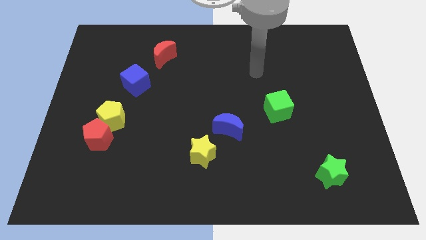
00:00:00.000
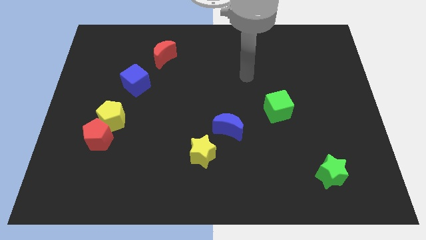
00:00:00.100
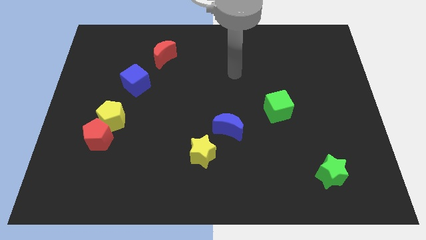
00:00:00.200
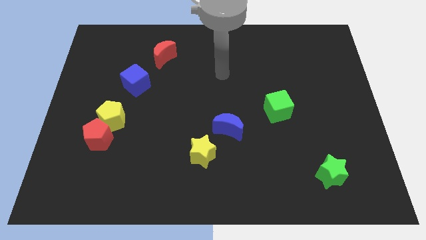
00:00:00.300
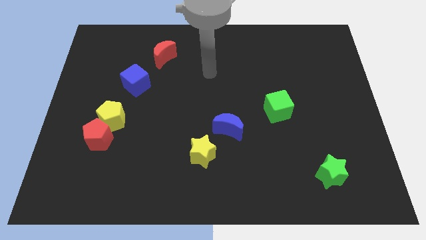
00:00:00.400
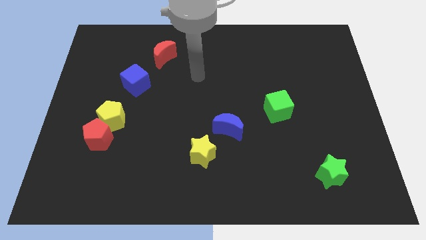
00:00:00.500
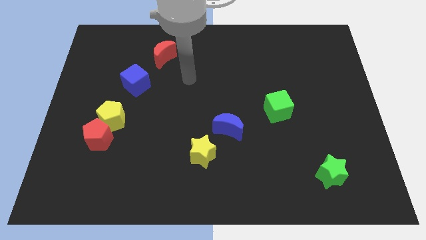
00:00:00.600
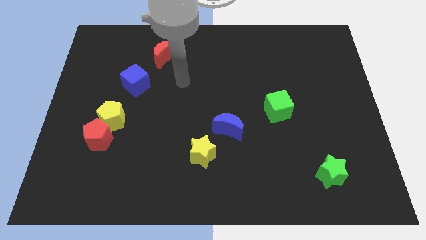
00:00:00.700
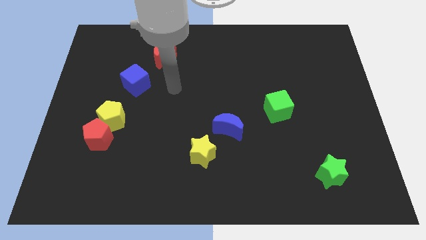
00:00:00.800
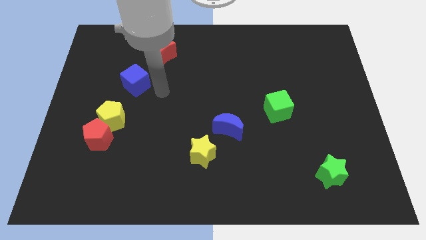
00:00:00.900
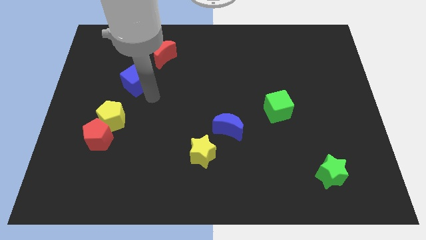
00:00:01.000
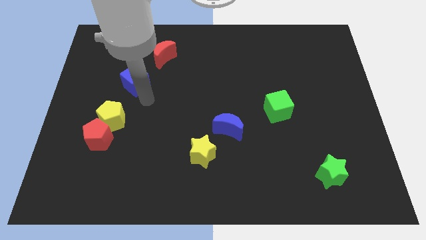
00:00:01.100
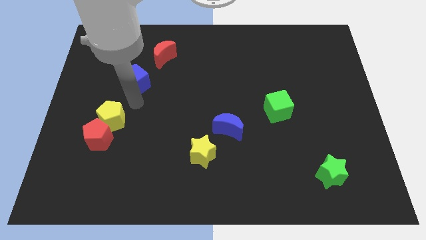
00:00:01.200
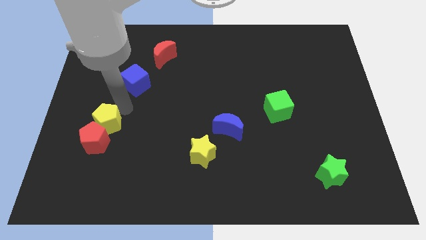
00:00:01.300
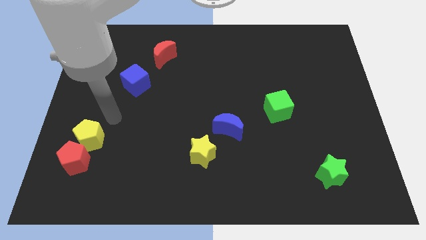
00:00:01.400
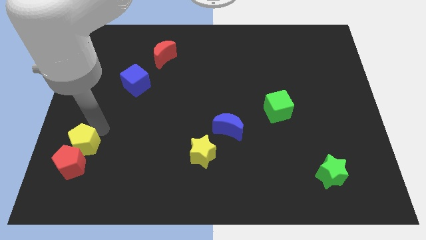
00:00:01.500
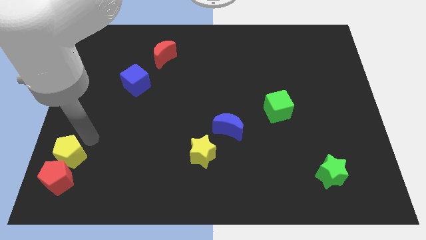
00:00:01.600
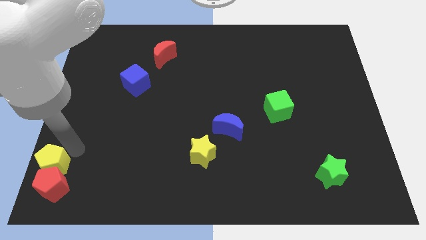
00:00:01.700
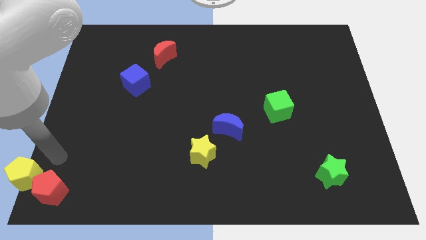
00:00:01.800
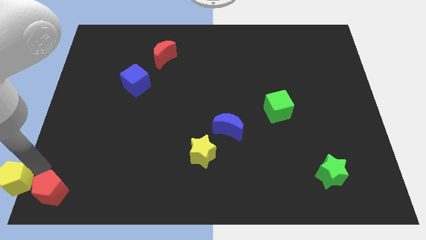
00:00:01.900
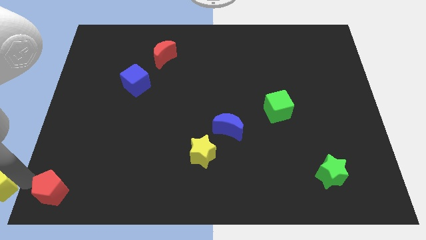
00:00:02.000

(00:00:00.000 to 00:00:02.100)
move the red pentagon away from the yellow pentagon

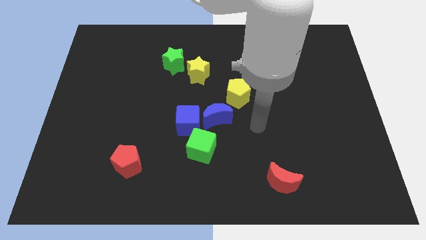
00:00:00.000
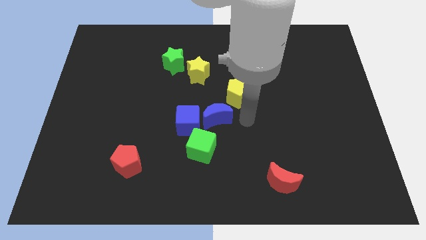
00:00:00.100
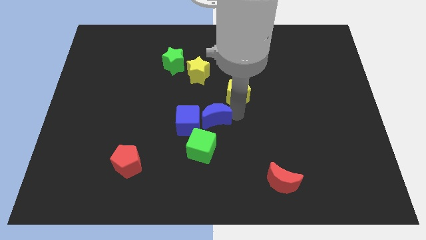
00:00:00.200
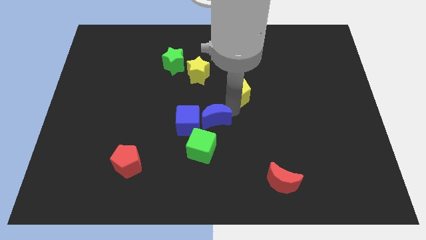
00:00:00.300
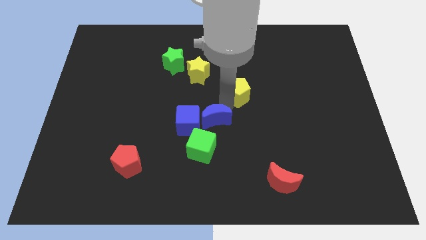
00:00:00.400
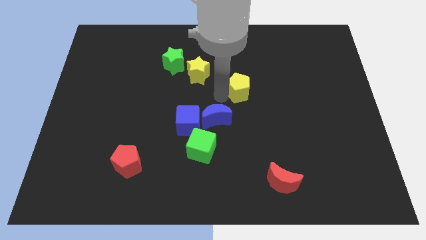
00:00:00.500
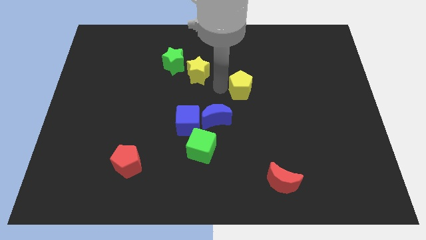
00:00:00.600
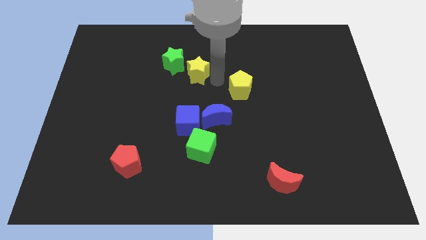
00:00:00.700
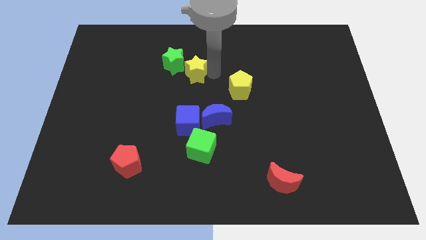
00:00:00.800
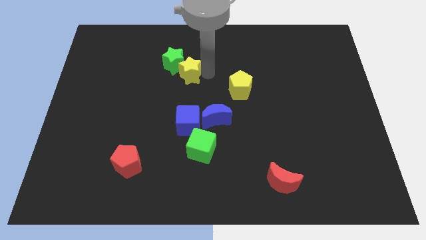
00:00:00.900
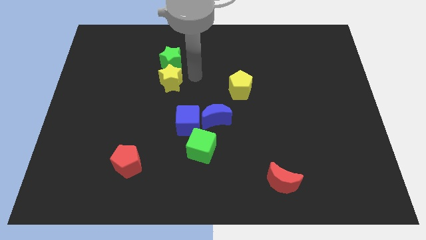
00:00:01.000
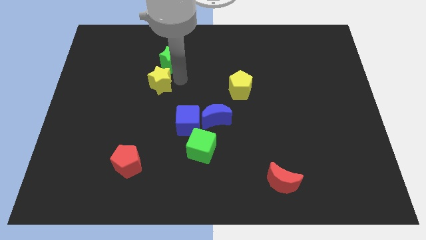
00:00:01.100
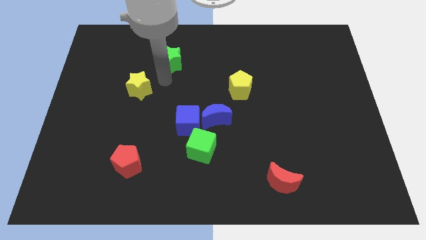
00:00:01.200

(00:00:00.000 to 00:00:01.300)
pull the green star apart from the yellow star

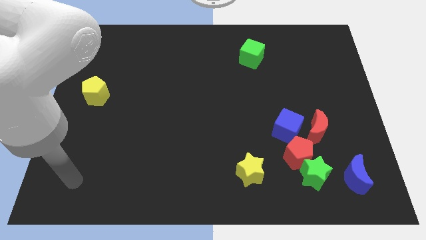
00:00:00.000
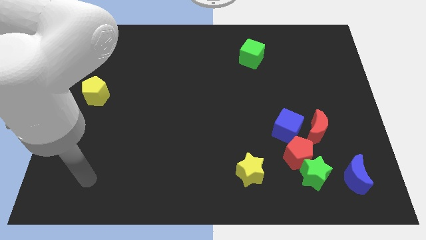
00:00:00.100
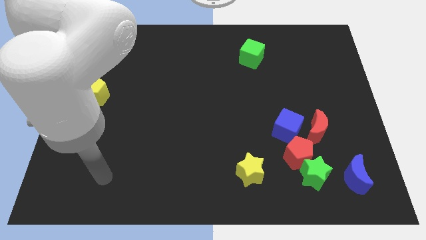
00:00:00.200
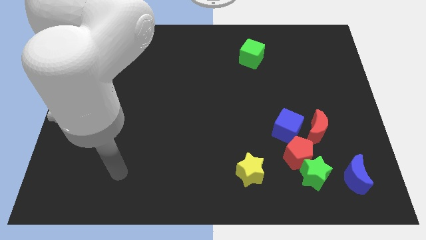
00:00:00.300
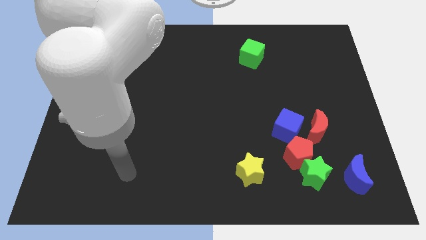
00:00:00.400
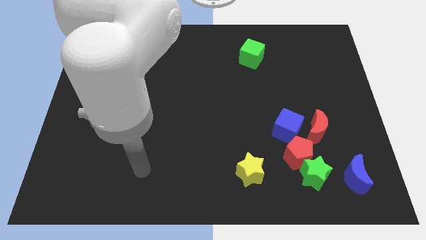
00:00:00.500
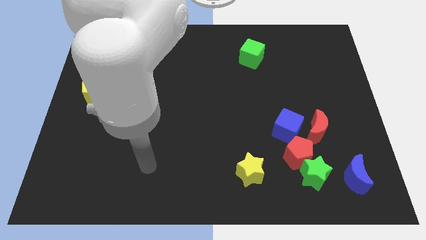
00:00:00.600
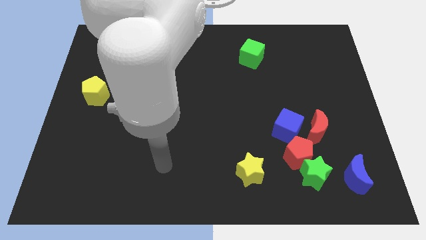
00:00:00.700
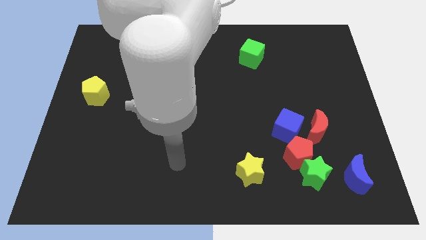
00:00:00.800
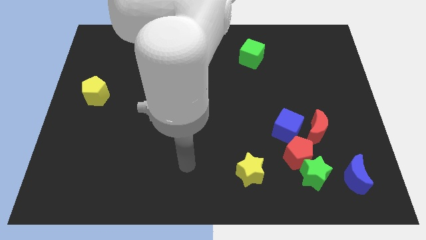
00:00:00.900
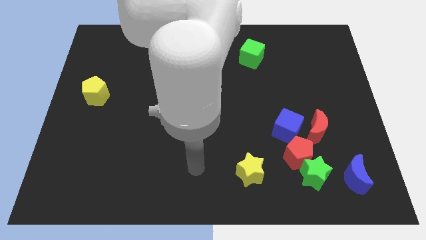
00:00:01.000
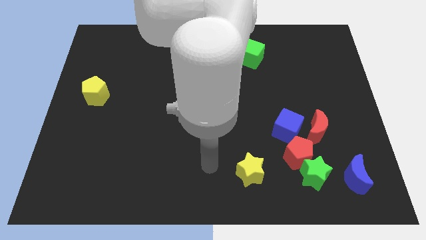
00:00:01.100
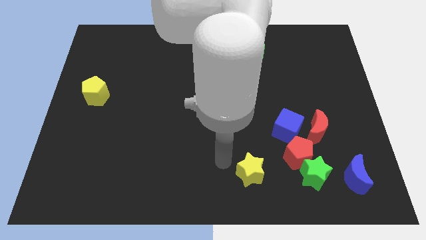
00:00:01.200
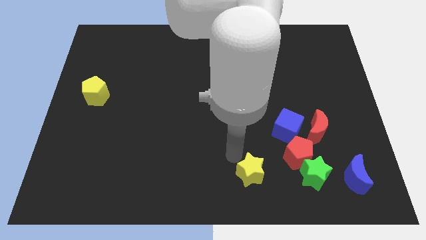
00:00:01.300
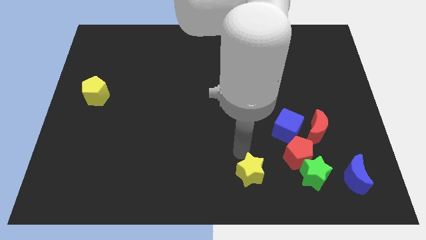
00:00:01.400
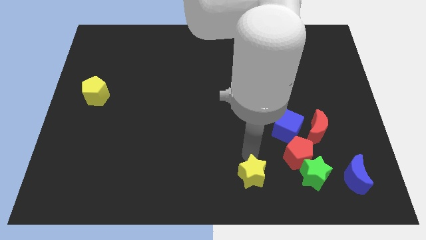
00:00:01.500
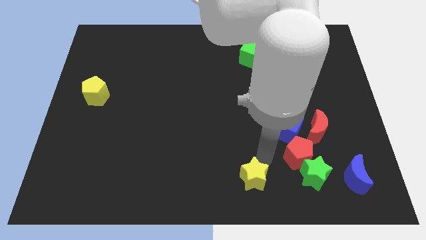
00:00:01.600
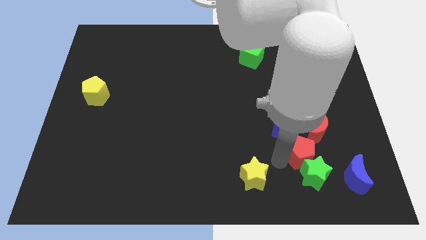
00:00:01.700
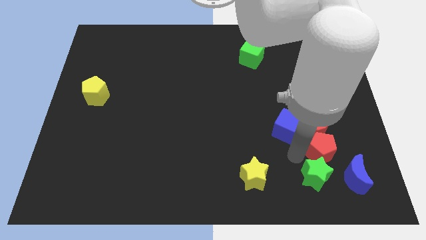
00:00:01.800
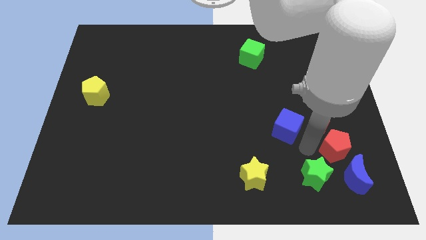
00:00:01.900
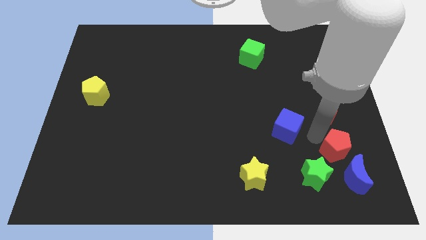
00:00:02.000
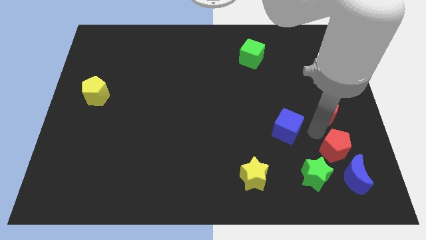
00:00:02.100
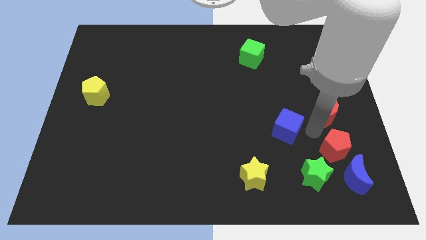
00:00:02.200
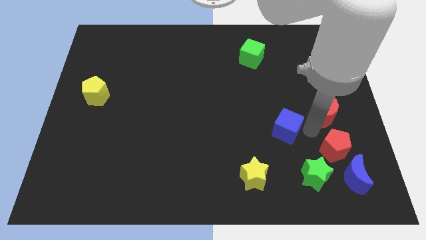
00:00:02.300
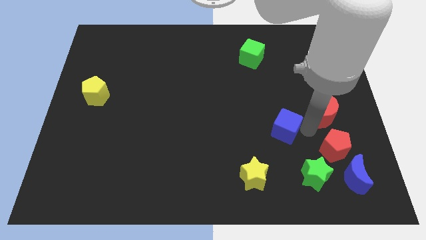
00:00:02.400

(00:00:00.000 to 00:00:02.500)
move the blue cube away from the red moon and red pentagon

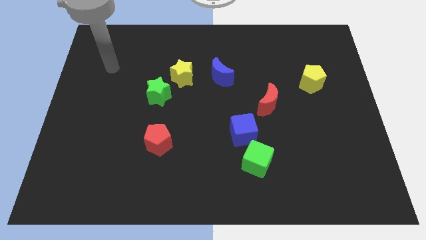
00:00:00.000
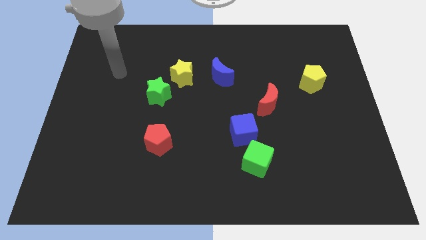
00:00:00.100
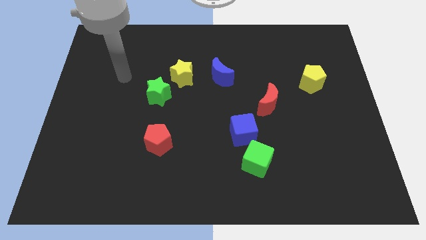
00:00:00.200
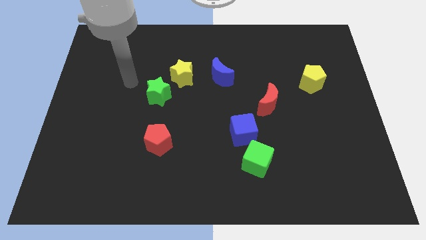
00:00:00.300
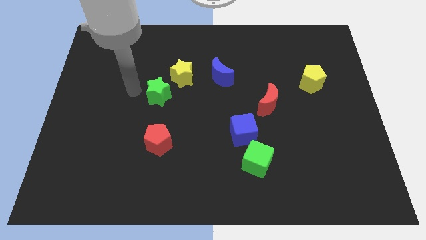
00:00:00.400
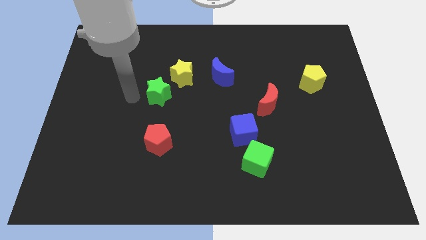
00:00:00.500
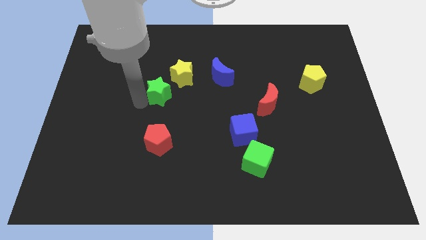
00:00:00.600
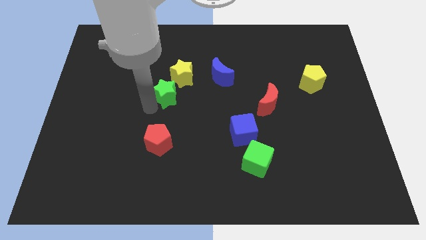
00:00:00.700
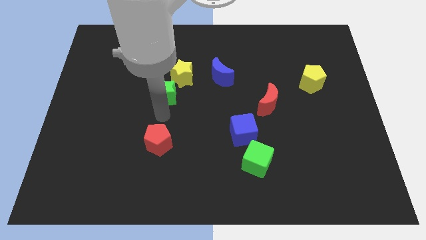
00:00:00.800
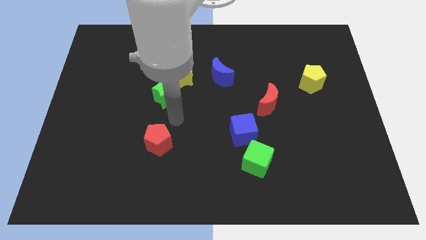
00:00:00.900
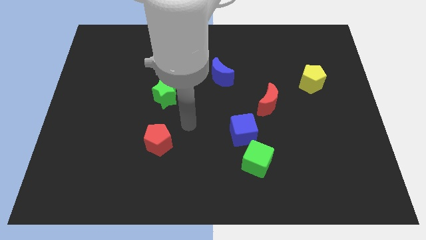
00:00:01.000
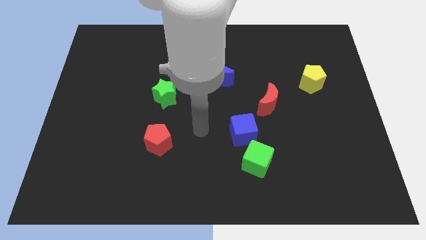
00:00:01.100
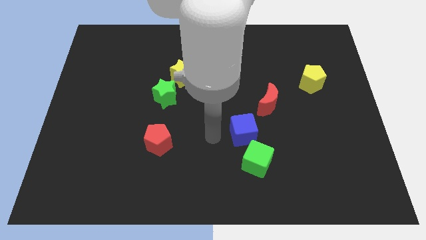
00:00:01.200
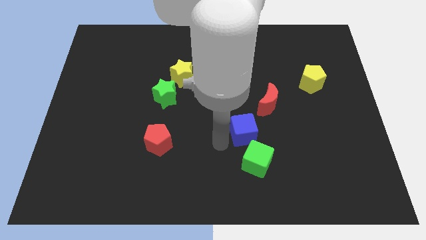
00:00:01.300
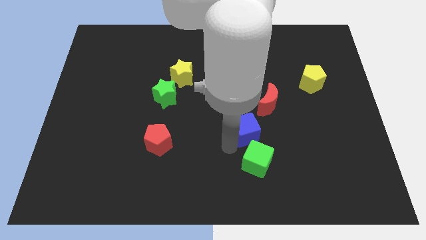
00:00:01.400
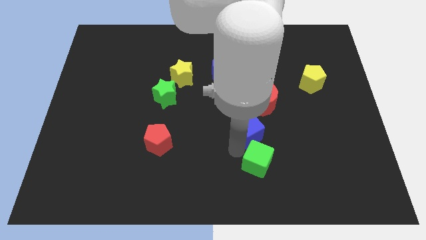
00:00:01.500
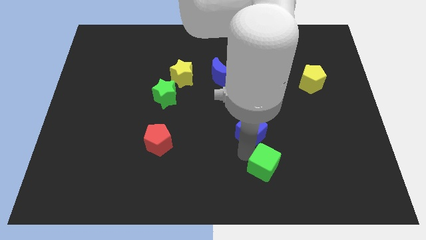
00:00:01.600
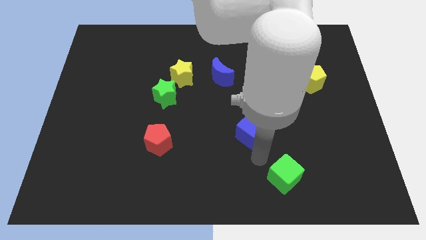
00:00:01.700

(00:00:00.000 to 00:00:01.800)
move the blue cube away from the green cube

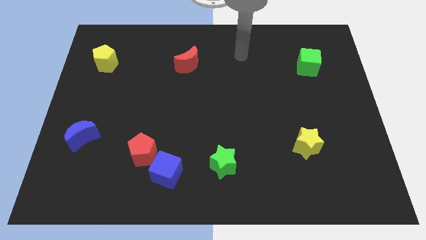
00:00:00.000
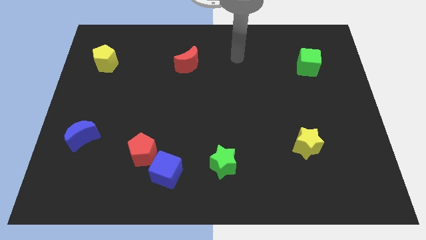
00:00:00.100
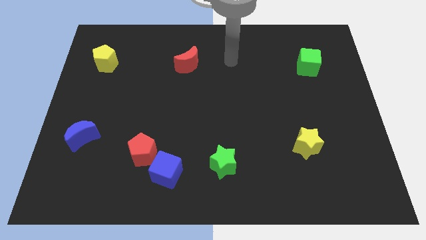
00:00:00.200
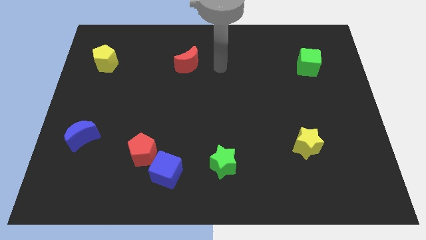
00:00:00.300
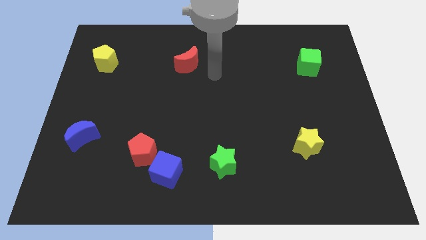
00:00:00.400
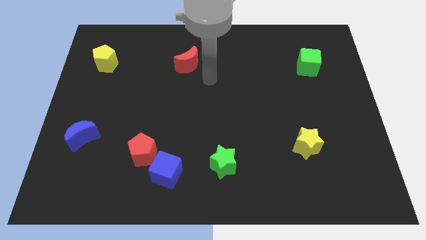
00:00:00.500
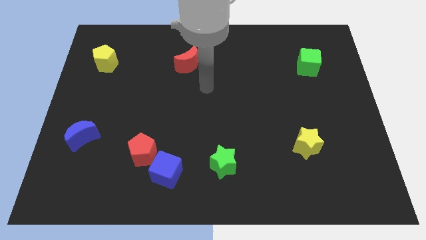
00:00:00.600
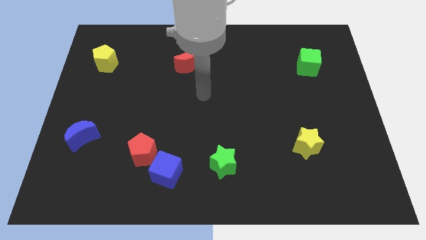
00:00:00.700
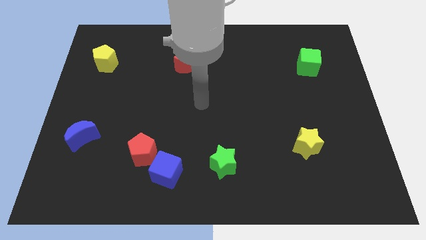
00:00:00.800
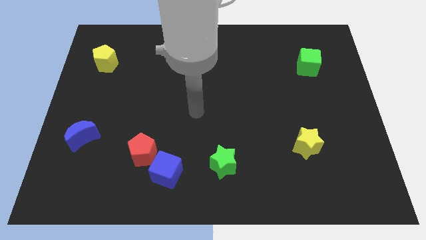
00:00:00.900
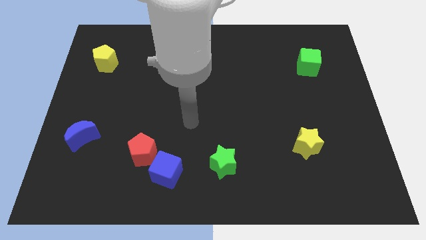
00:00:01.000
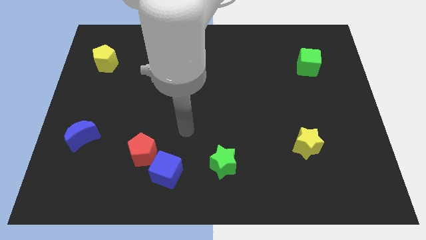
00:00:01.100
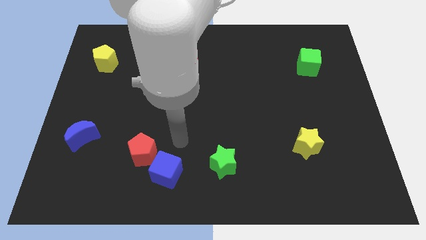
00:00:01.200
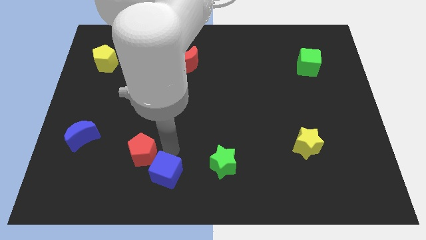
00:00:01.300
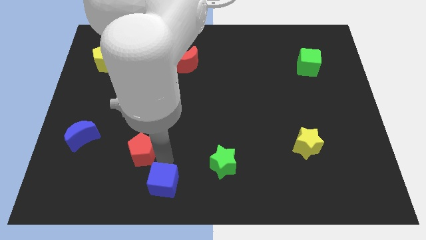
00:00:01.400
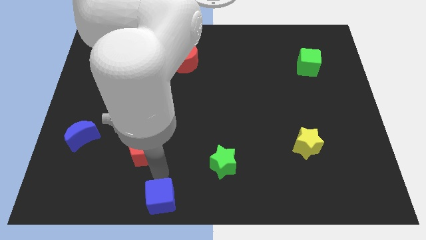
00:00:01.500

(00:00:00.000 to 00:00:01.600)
separate the red pentagon from the blue cube

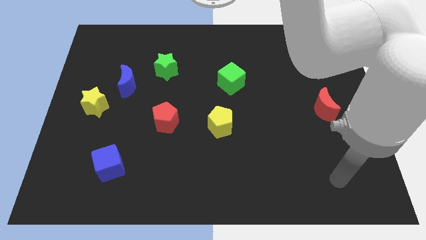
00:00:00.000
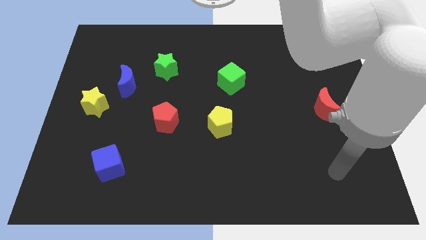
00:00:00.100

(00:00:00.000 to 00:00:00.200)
pull the blue moon apart from the yellow star
